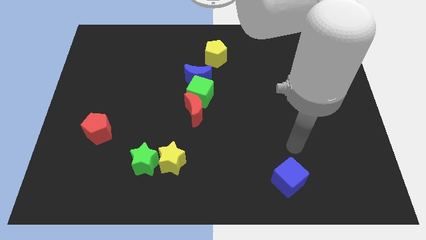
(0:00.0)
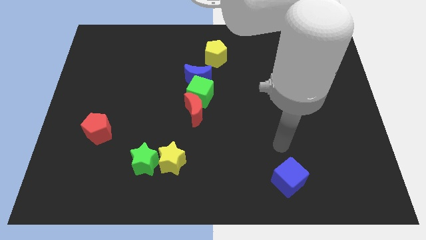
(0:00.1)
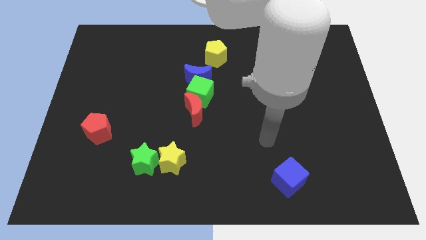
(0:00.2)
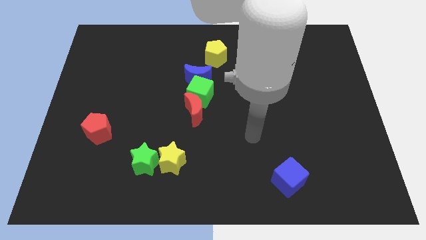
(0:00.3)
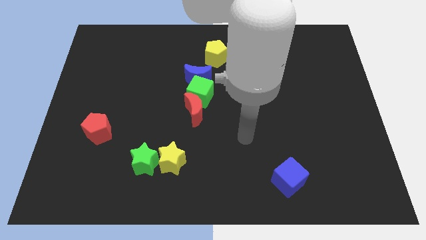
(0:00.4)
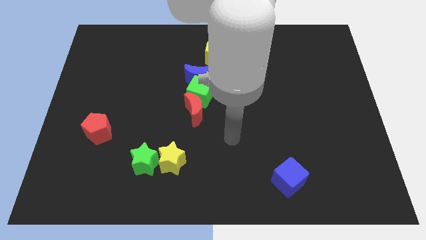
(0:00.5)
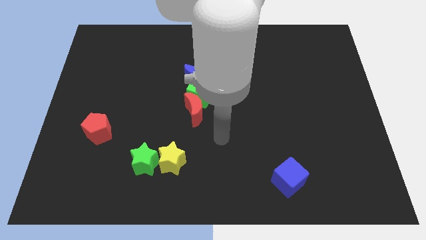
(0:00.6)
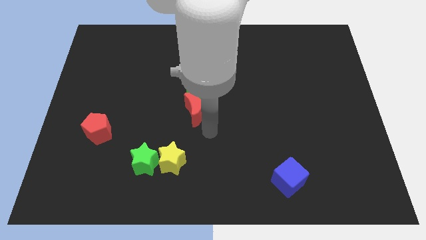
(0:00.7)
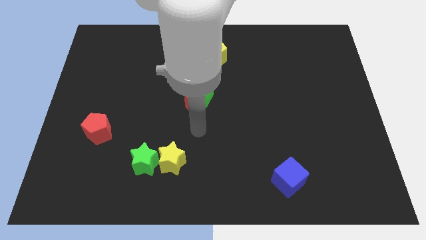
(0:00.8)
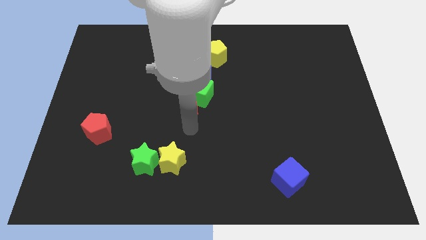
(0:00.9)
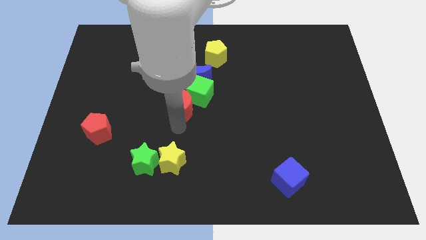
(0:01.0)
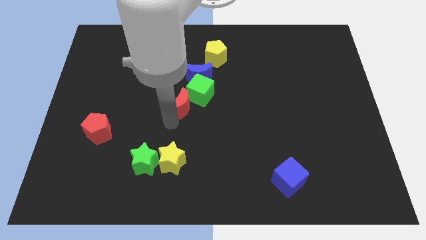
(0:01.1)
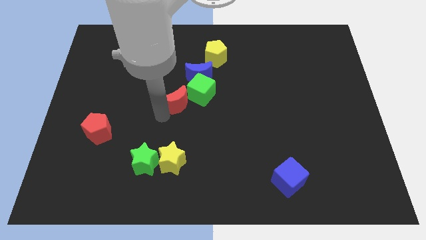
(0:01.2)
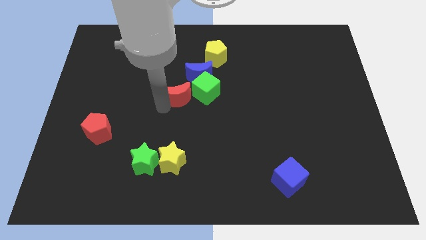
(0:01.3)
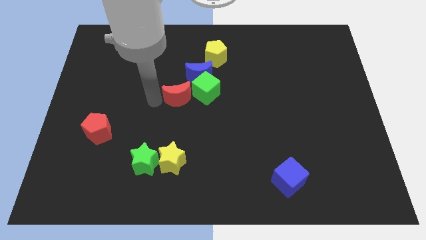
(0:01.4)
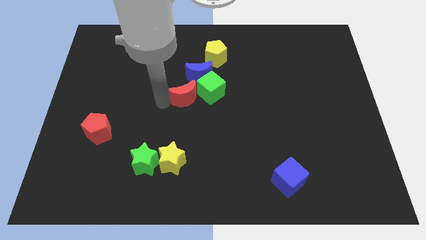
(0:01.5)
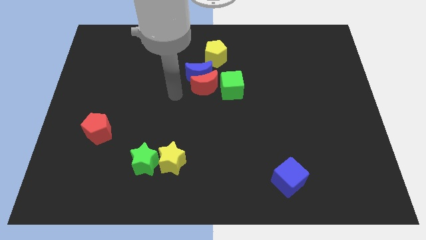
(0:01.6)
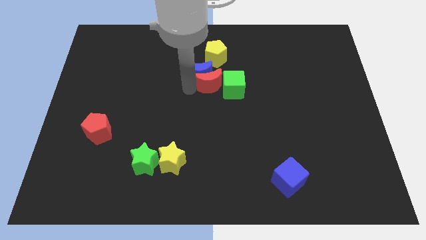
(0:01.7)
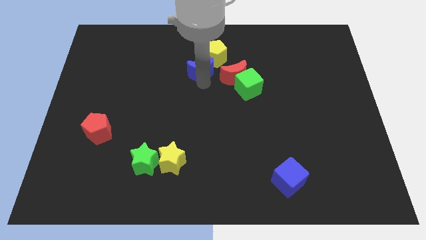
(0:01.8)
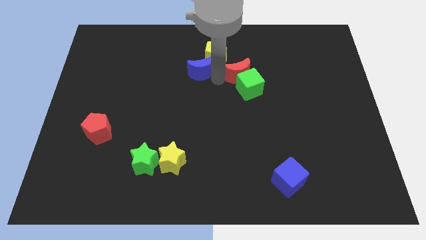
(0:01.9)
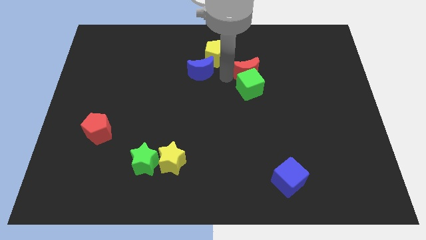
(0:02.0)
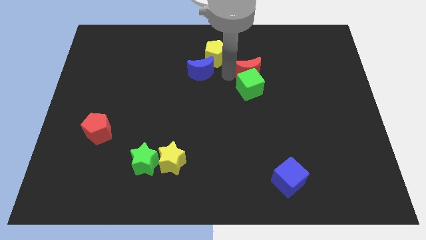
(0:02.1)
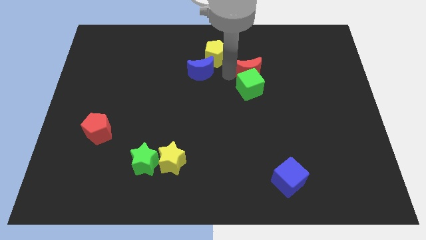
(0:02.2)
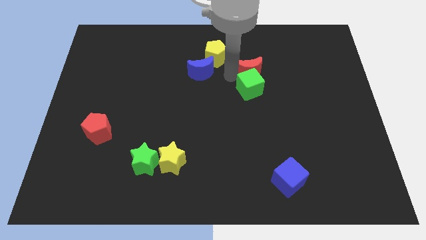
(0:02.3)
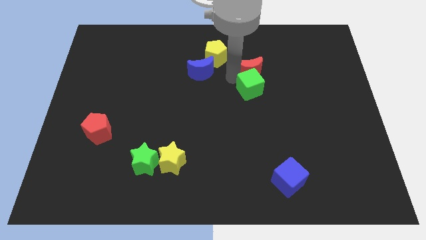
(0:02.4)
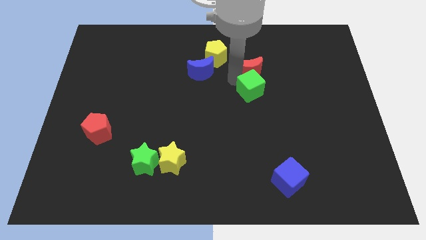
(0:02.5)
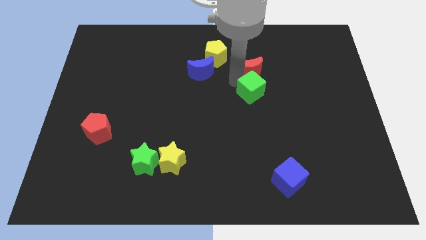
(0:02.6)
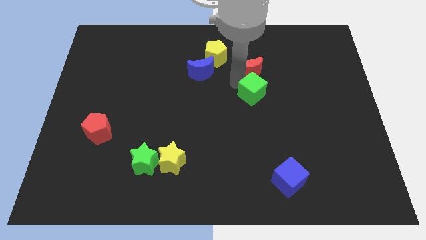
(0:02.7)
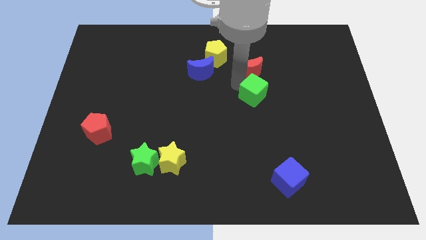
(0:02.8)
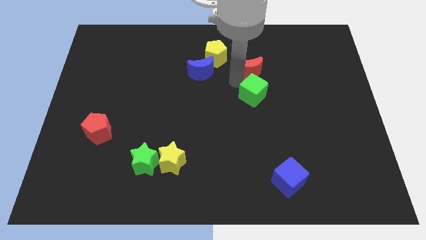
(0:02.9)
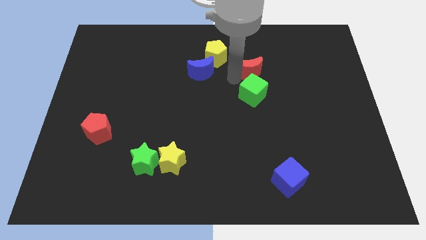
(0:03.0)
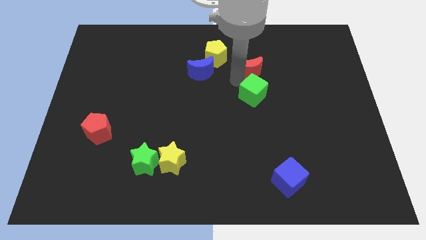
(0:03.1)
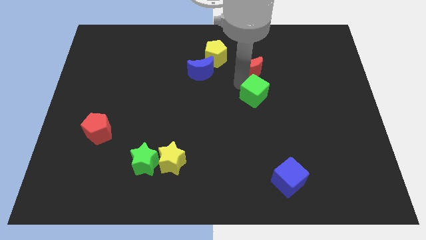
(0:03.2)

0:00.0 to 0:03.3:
pull the green cube apart from the blue moon and red moon

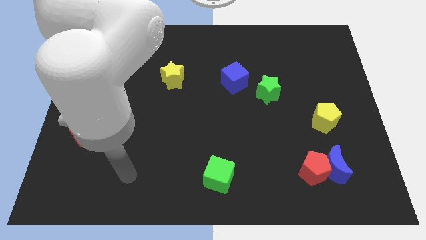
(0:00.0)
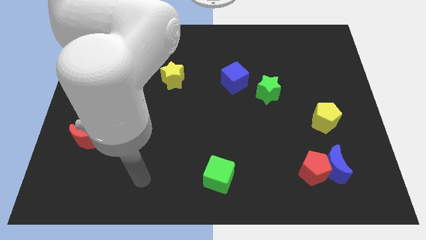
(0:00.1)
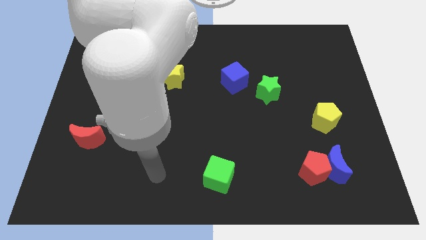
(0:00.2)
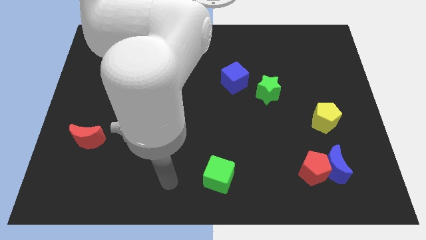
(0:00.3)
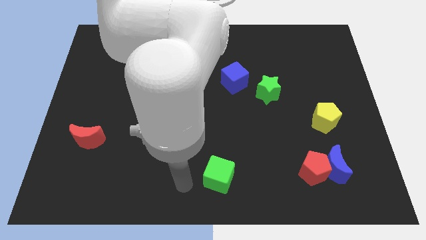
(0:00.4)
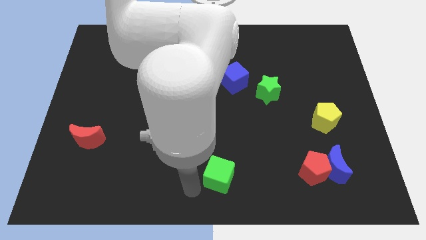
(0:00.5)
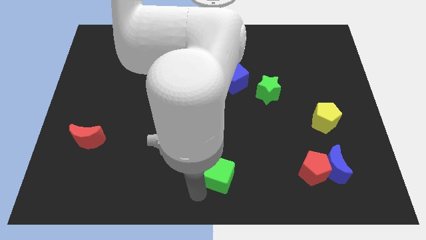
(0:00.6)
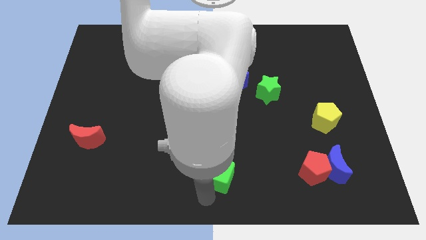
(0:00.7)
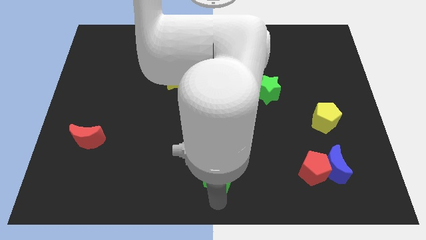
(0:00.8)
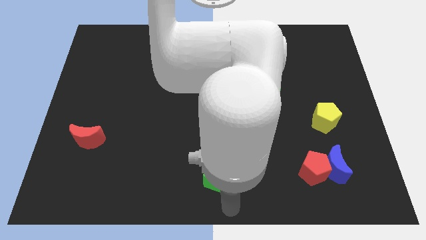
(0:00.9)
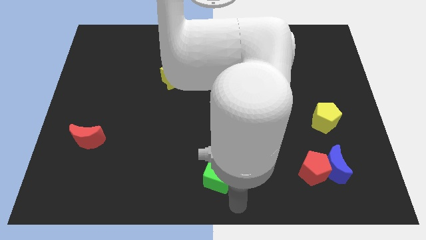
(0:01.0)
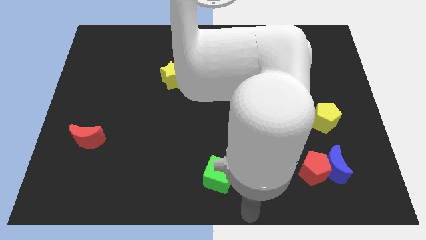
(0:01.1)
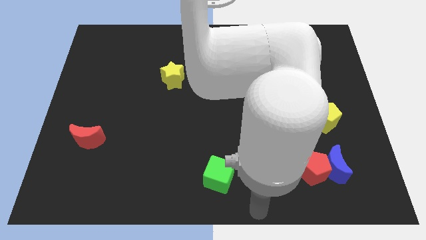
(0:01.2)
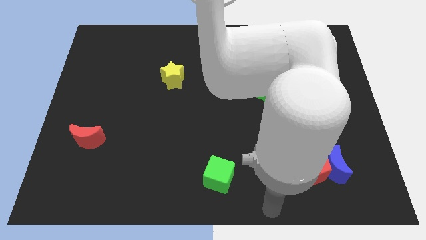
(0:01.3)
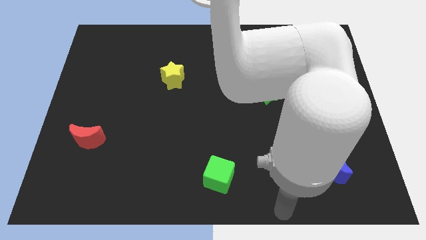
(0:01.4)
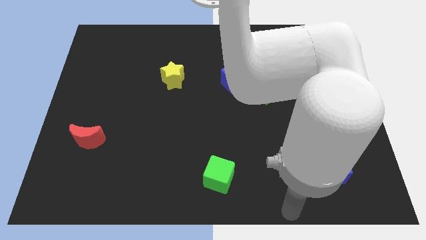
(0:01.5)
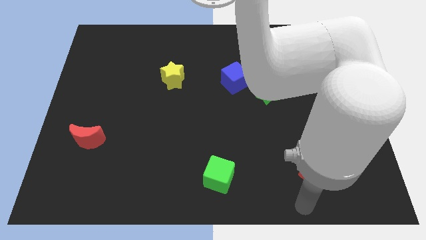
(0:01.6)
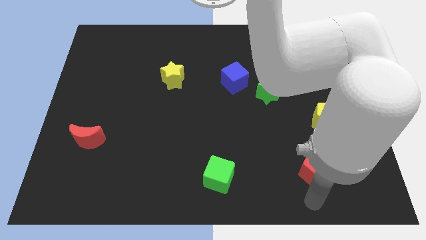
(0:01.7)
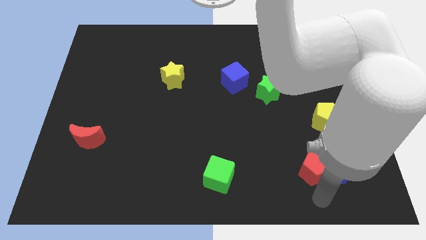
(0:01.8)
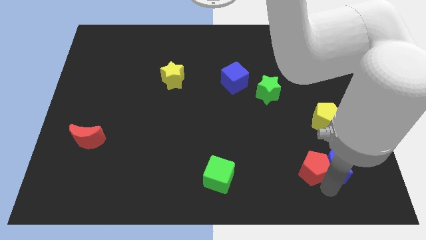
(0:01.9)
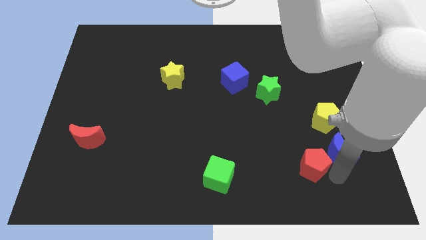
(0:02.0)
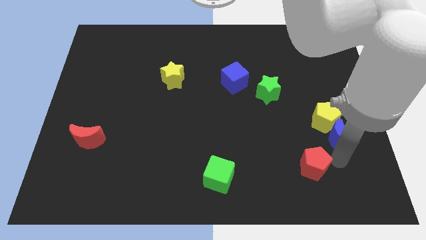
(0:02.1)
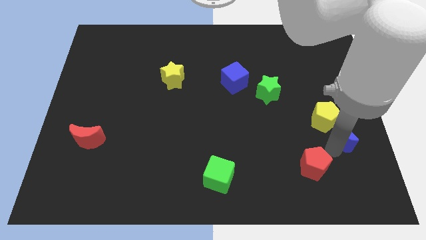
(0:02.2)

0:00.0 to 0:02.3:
pull the red pentagon apart from the blue moon

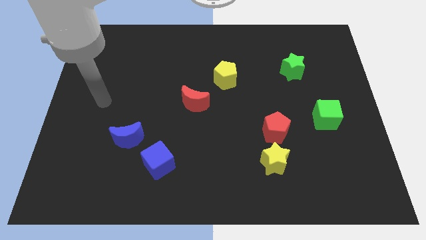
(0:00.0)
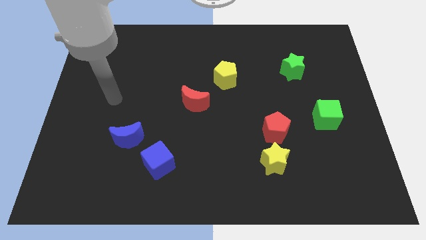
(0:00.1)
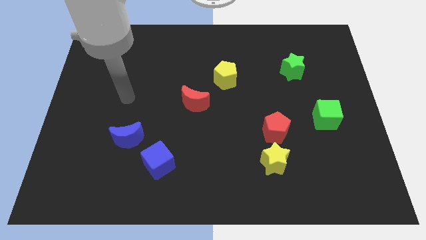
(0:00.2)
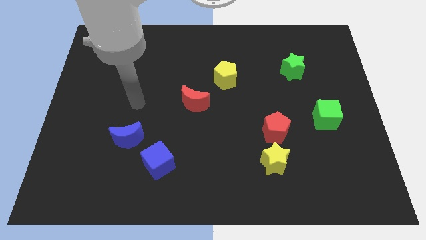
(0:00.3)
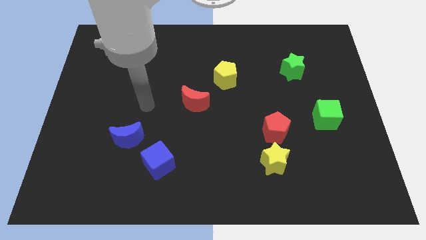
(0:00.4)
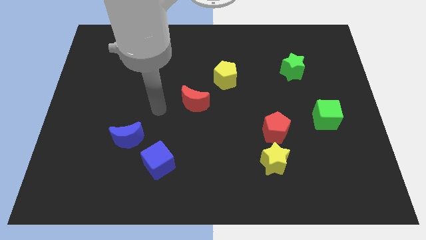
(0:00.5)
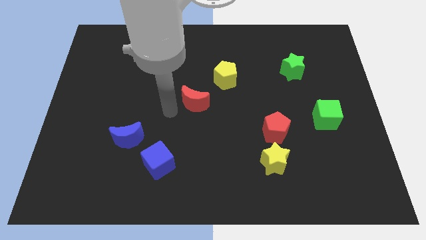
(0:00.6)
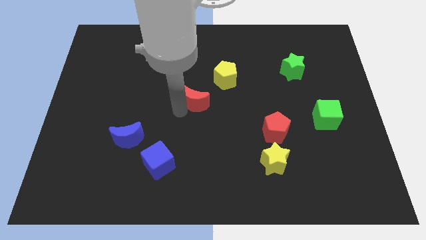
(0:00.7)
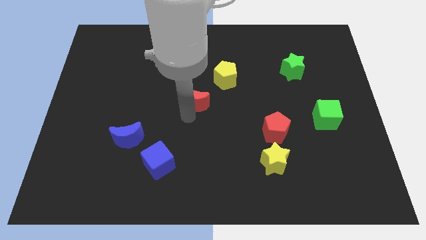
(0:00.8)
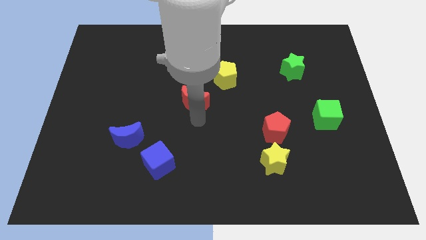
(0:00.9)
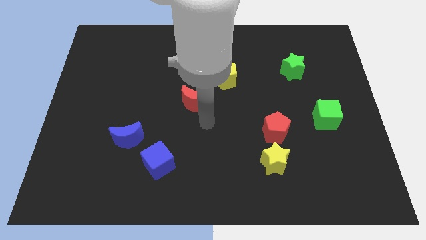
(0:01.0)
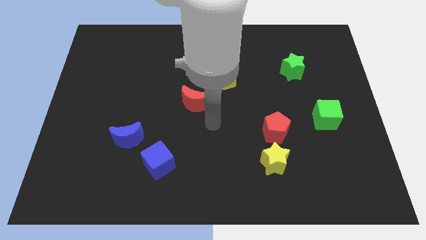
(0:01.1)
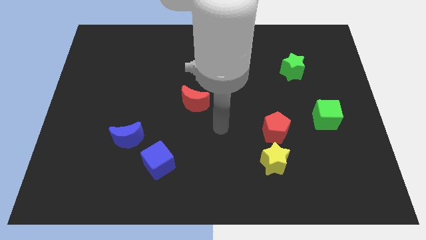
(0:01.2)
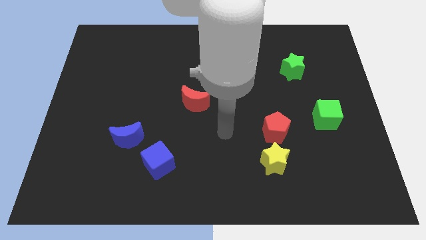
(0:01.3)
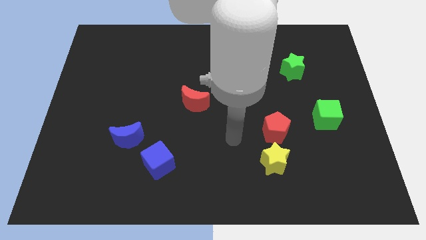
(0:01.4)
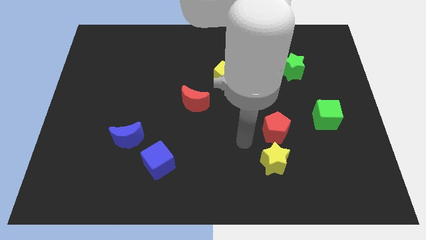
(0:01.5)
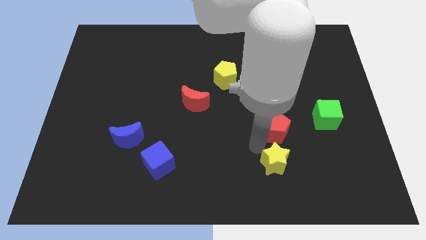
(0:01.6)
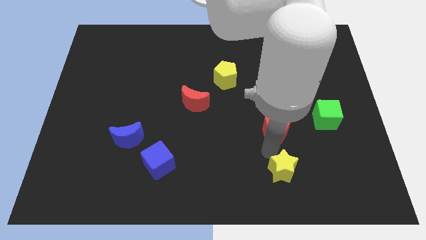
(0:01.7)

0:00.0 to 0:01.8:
separate the red pentagon from the yellow star

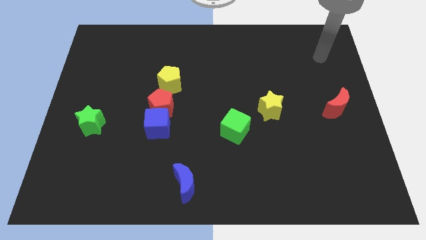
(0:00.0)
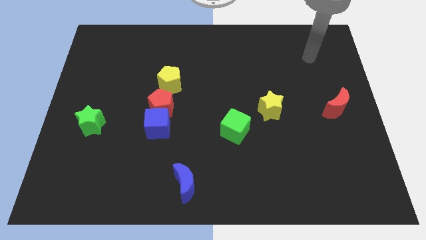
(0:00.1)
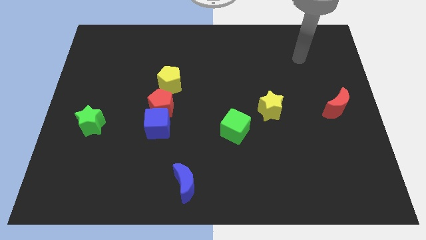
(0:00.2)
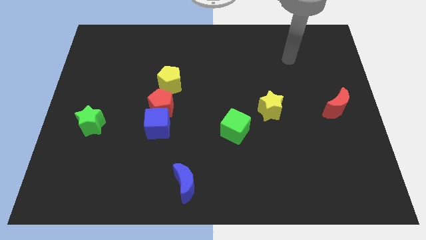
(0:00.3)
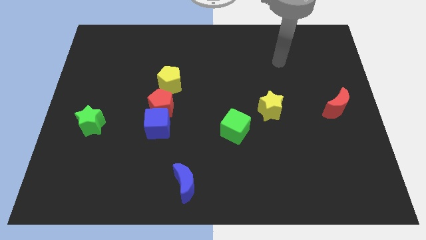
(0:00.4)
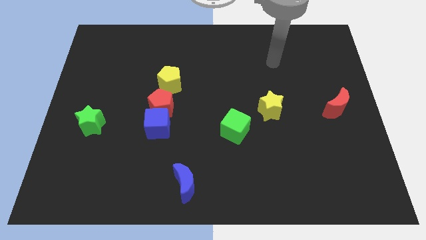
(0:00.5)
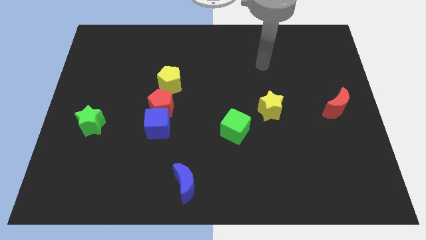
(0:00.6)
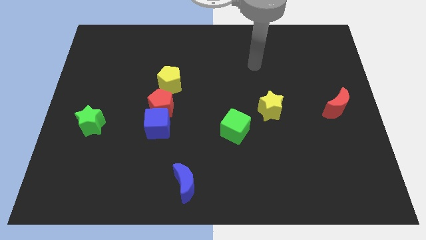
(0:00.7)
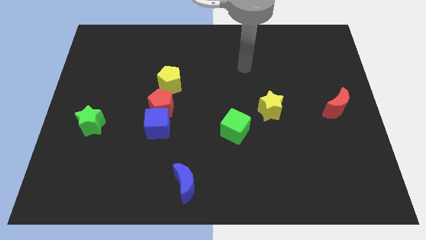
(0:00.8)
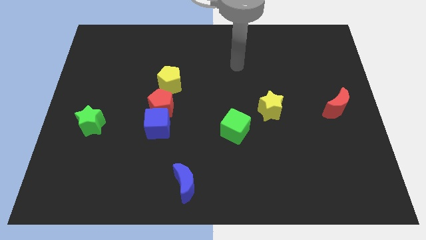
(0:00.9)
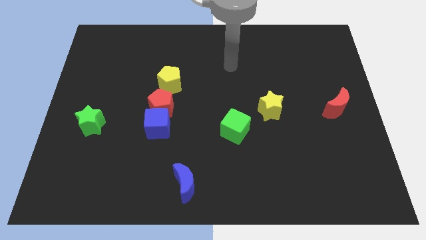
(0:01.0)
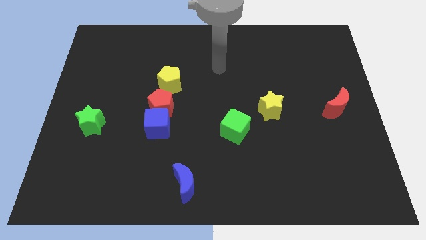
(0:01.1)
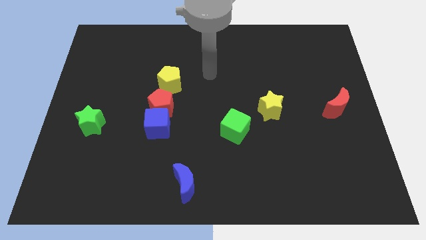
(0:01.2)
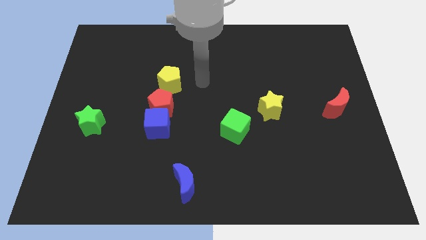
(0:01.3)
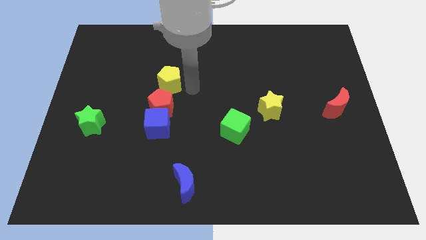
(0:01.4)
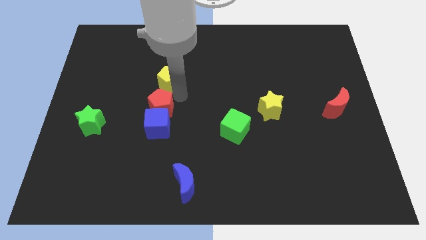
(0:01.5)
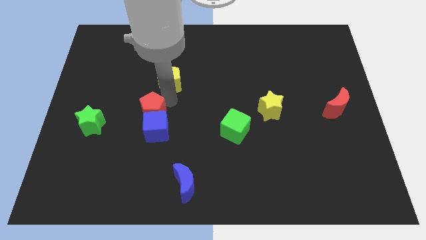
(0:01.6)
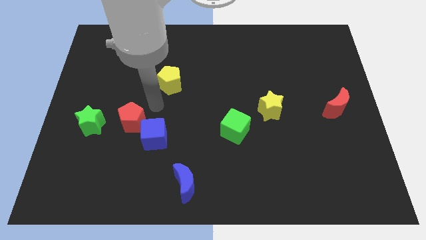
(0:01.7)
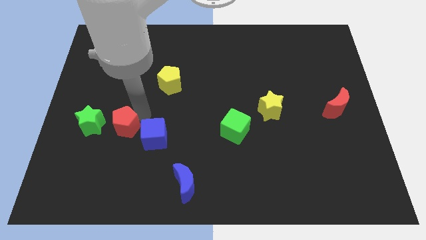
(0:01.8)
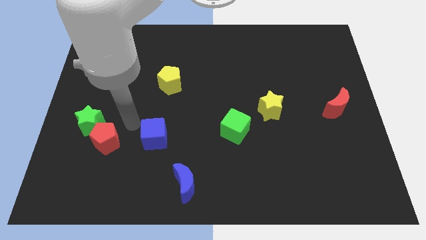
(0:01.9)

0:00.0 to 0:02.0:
pull the blue cube apart from the red pentagon
